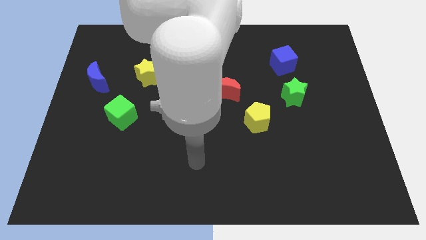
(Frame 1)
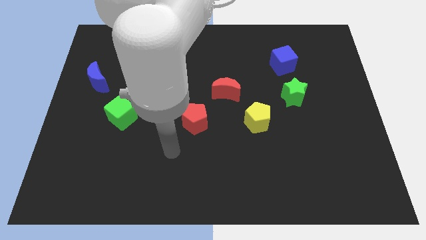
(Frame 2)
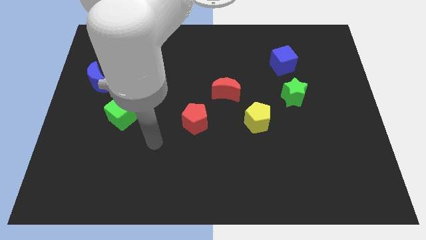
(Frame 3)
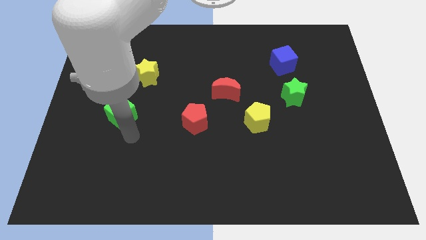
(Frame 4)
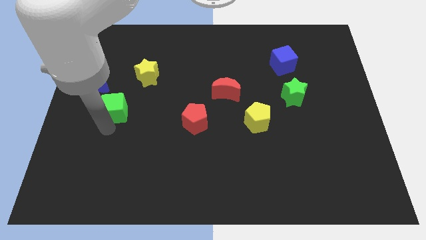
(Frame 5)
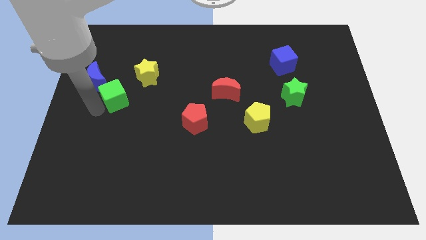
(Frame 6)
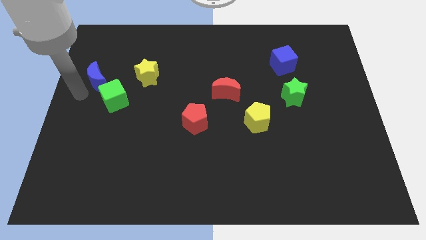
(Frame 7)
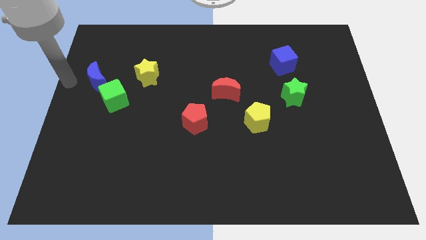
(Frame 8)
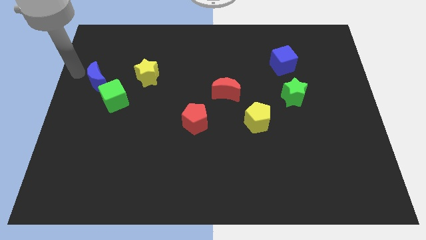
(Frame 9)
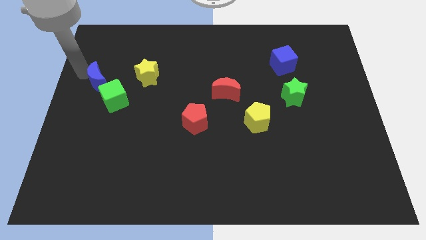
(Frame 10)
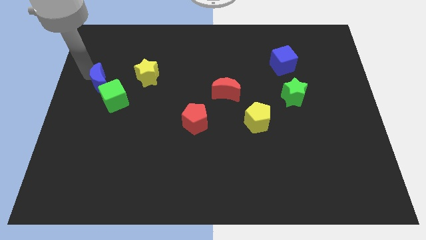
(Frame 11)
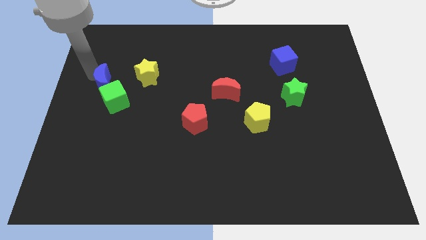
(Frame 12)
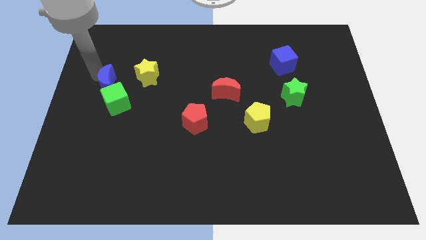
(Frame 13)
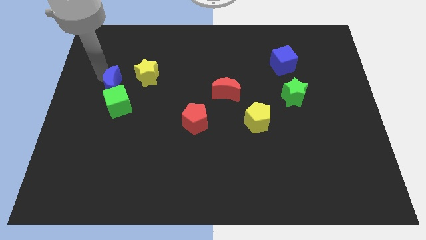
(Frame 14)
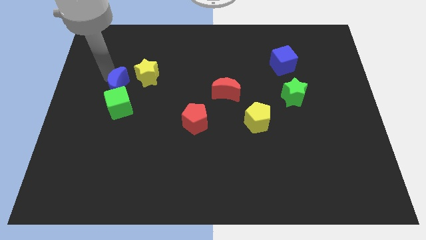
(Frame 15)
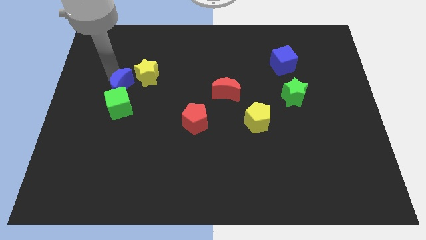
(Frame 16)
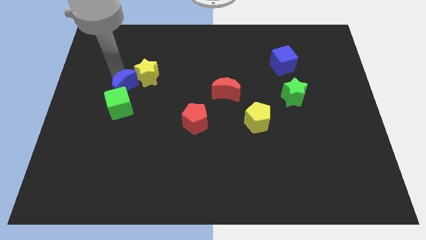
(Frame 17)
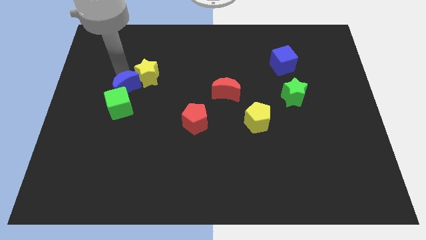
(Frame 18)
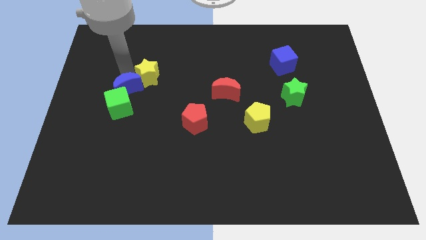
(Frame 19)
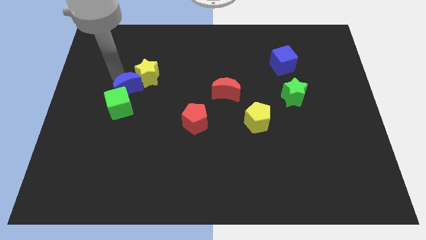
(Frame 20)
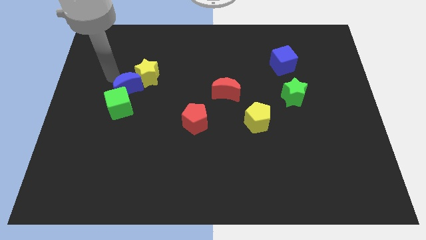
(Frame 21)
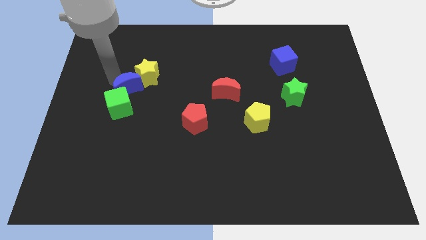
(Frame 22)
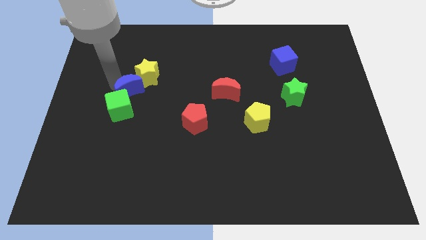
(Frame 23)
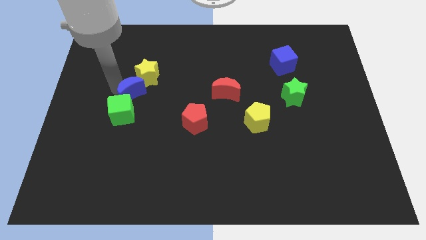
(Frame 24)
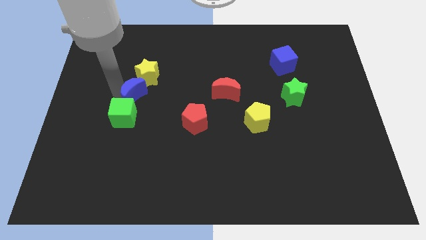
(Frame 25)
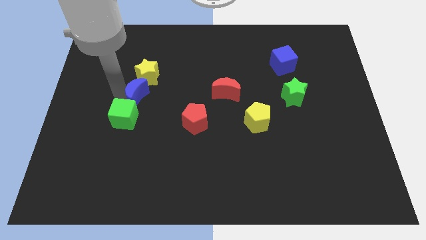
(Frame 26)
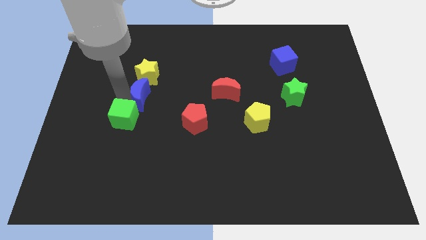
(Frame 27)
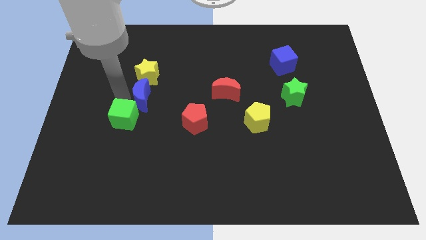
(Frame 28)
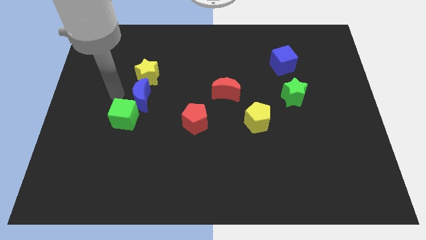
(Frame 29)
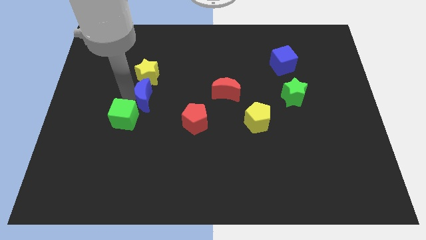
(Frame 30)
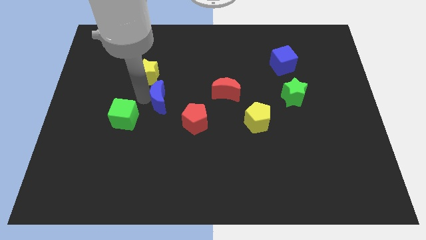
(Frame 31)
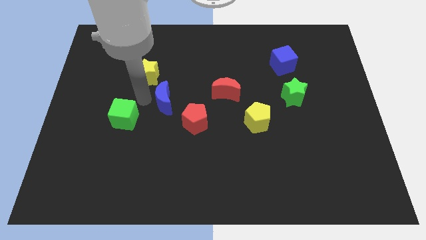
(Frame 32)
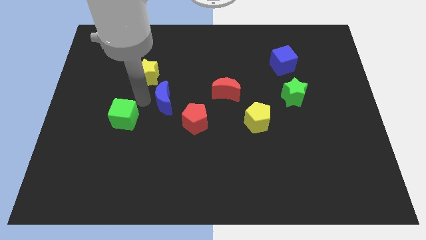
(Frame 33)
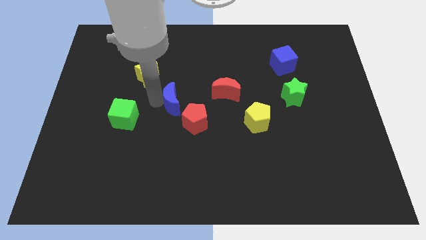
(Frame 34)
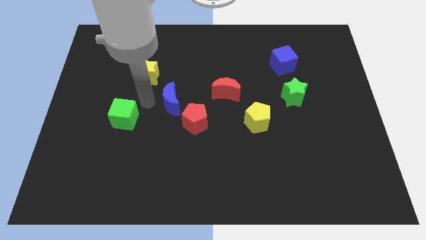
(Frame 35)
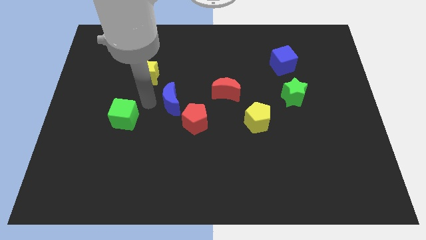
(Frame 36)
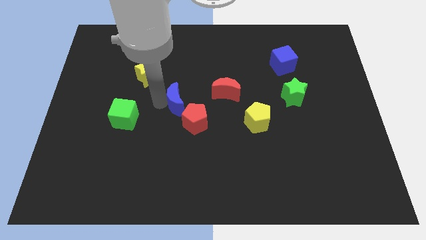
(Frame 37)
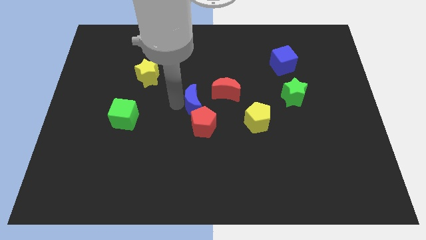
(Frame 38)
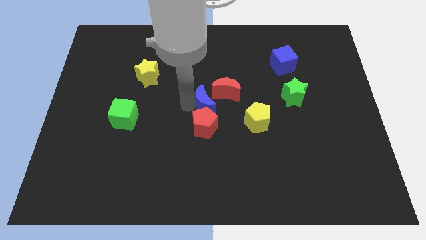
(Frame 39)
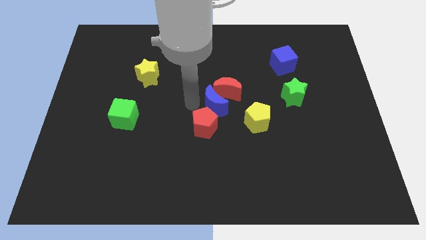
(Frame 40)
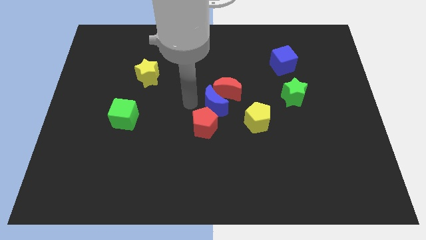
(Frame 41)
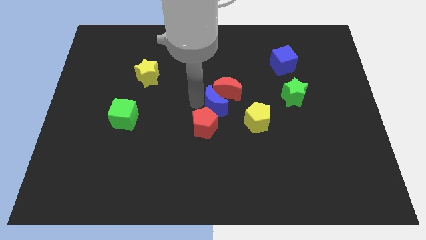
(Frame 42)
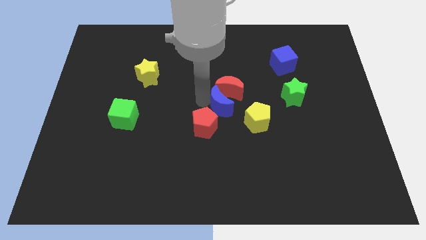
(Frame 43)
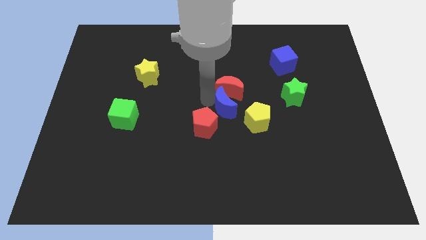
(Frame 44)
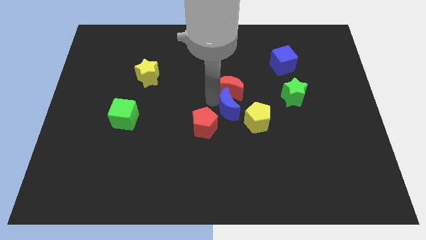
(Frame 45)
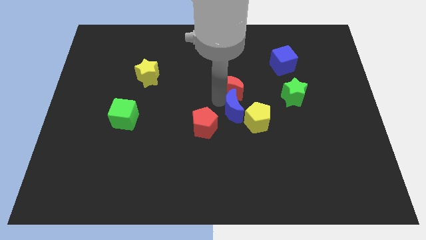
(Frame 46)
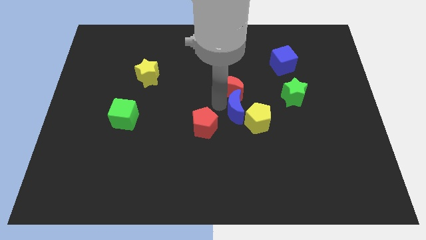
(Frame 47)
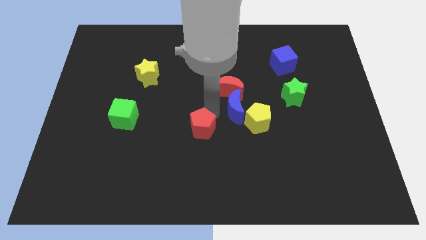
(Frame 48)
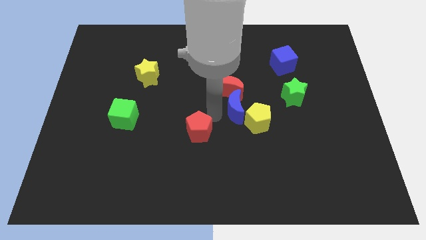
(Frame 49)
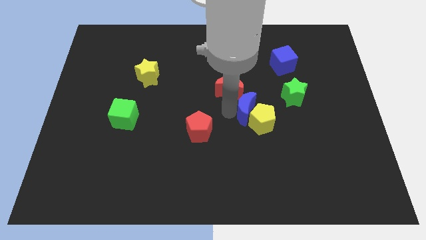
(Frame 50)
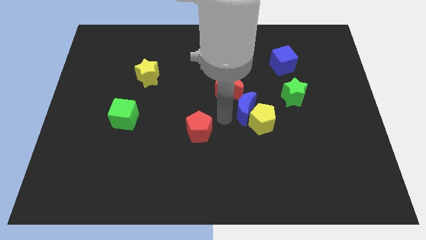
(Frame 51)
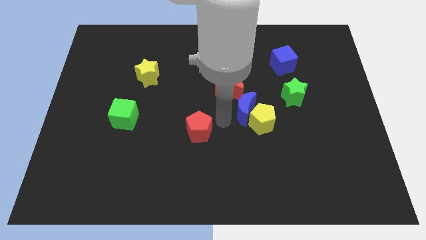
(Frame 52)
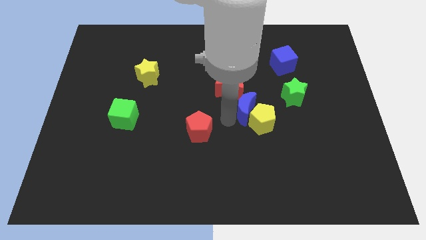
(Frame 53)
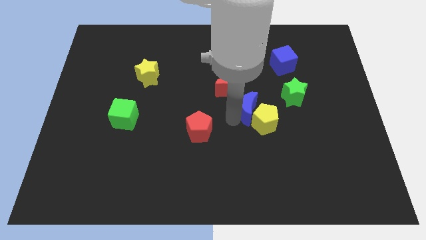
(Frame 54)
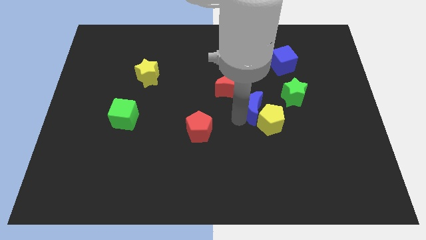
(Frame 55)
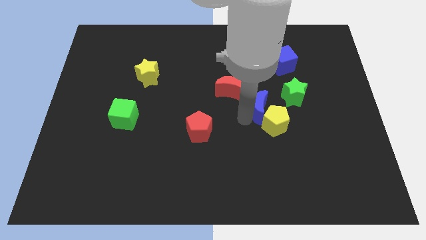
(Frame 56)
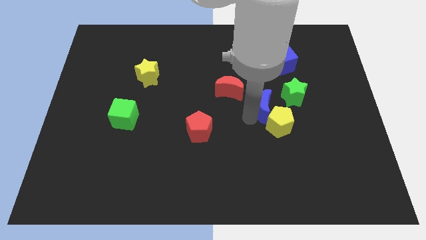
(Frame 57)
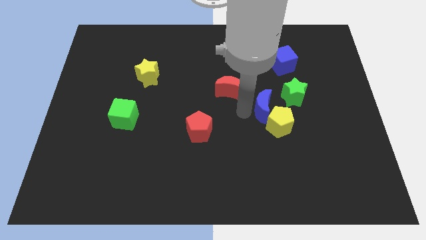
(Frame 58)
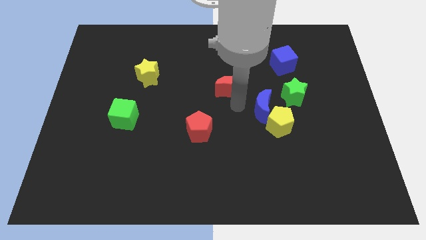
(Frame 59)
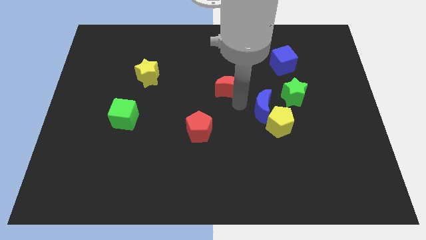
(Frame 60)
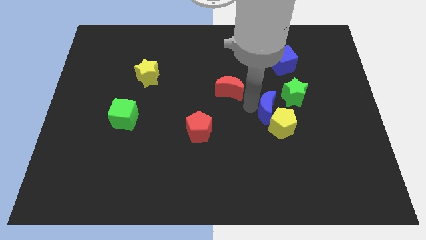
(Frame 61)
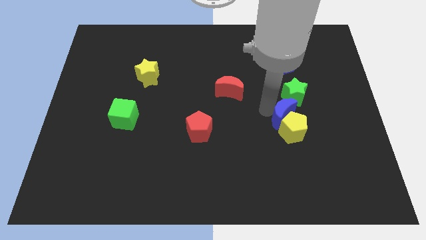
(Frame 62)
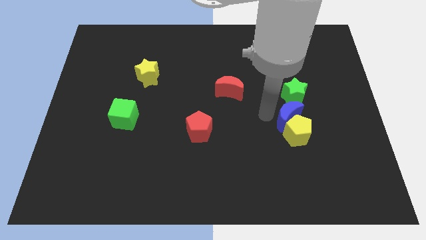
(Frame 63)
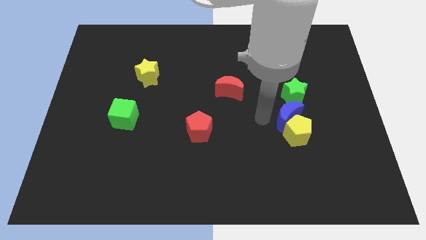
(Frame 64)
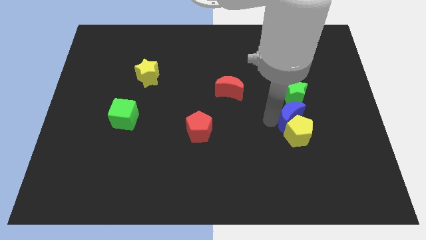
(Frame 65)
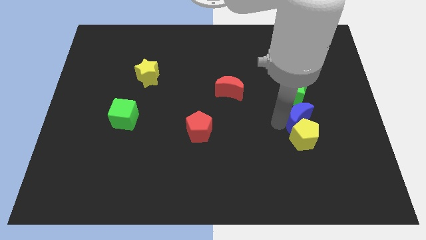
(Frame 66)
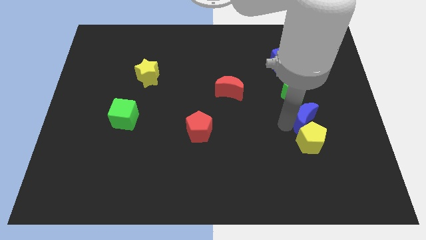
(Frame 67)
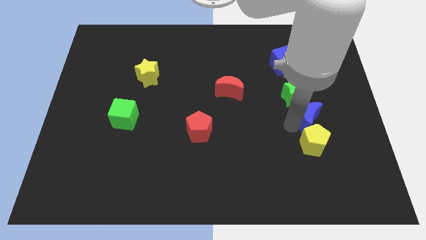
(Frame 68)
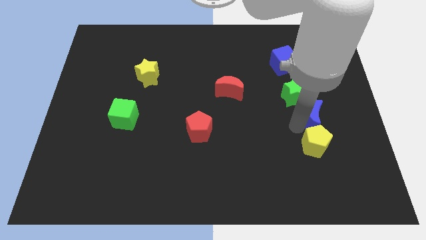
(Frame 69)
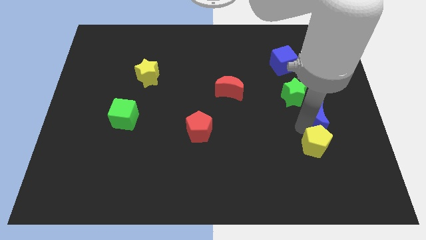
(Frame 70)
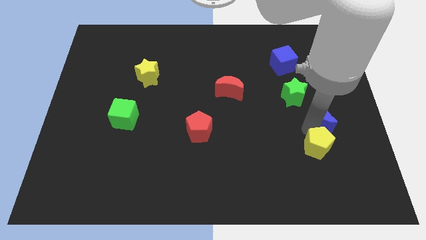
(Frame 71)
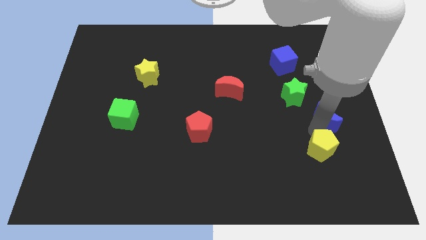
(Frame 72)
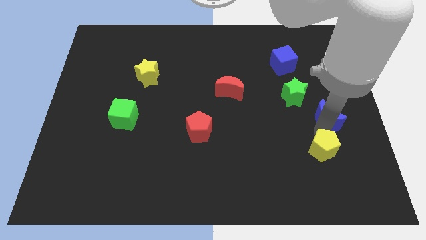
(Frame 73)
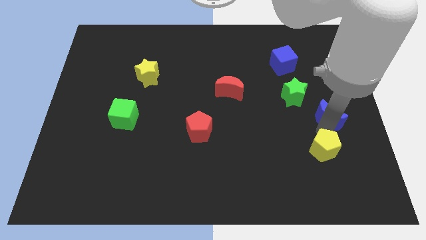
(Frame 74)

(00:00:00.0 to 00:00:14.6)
move the blue moon to the right side
